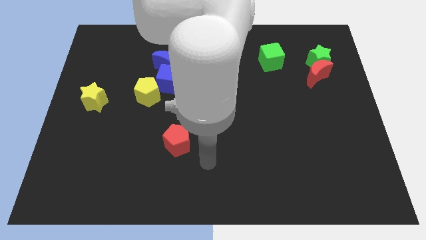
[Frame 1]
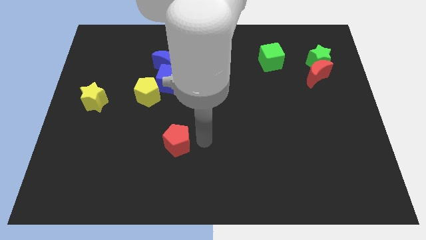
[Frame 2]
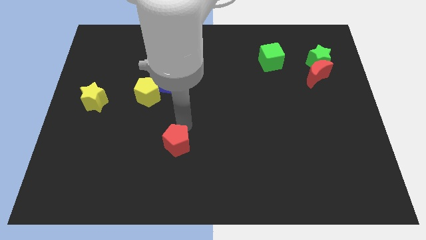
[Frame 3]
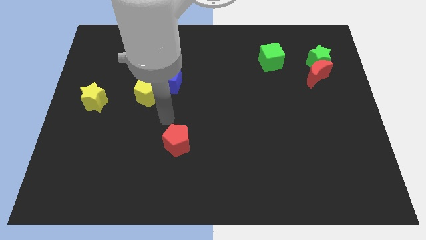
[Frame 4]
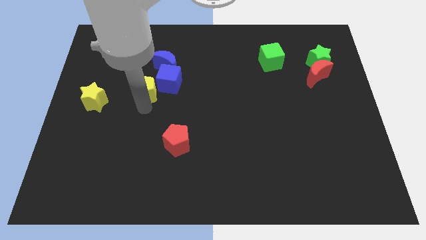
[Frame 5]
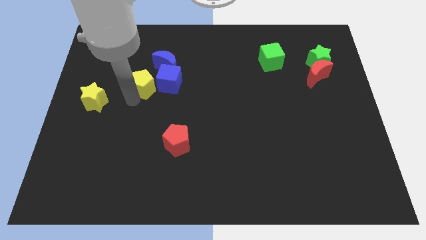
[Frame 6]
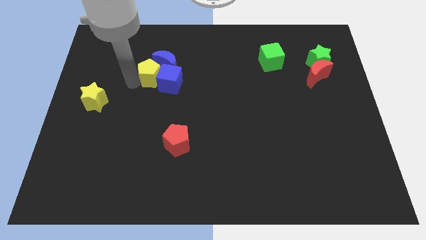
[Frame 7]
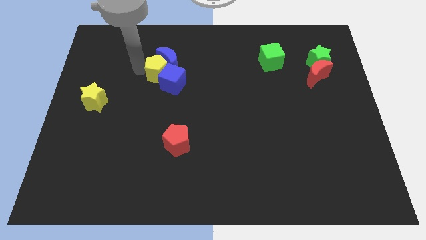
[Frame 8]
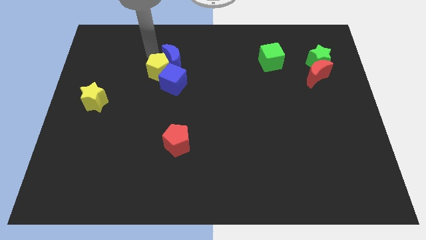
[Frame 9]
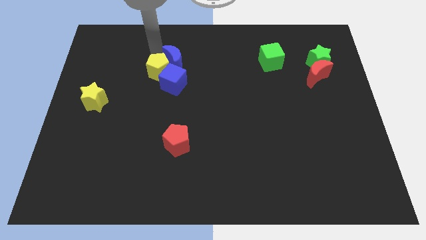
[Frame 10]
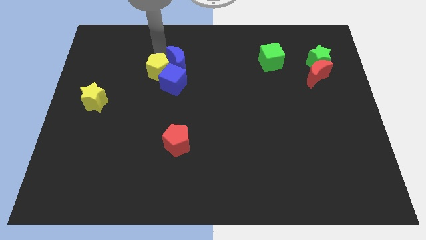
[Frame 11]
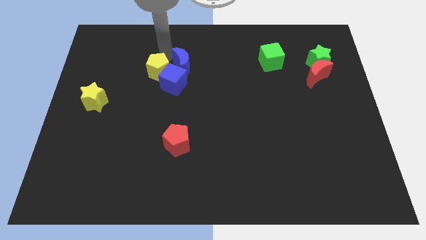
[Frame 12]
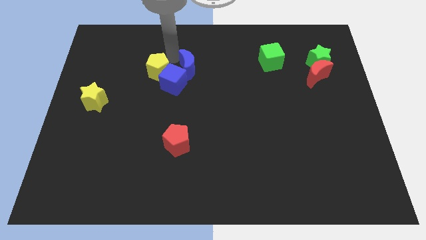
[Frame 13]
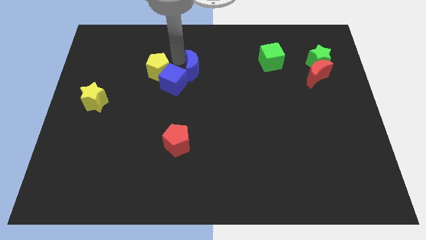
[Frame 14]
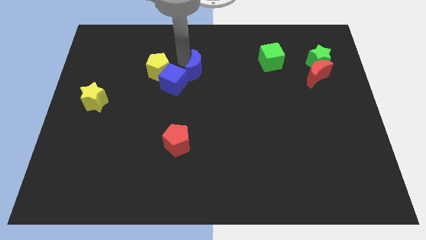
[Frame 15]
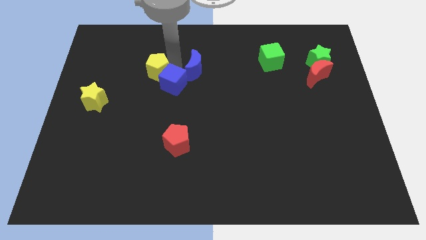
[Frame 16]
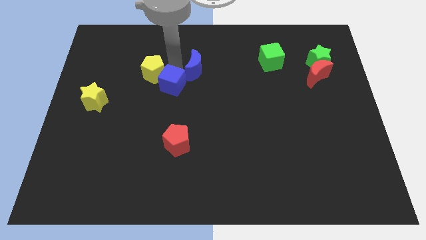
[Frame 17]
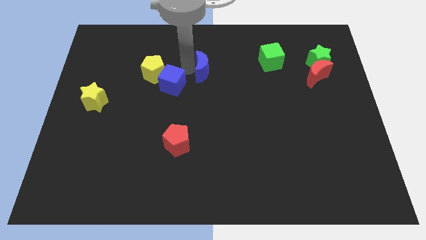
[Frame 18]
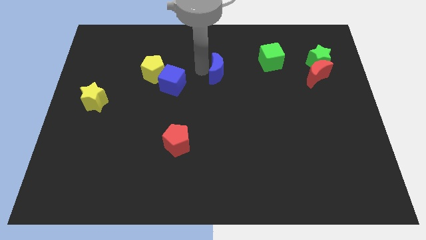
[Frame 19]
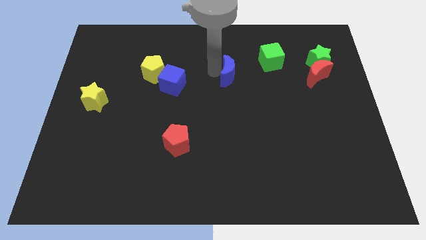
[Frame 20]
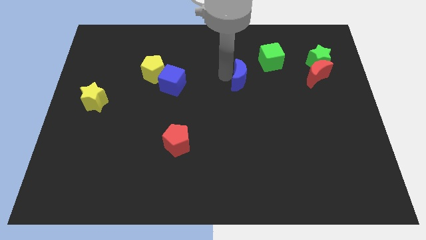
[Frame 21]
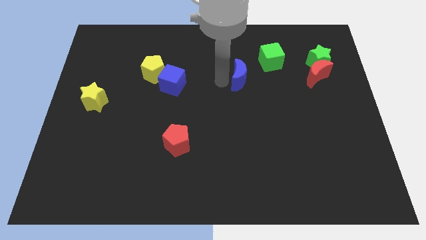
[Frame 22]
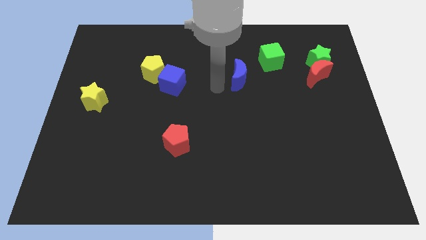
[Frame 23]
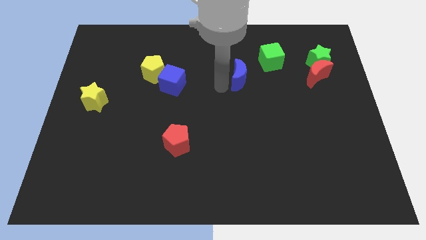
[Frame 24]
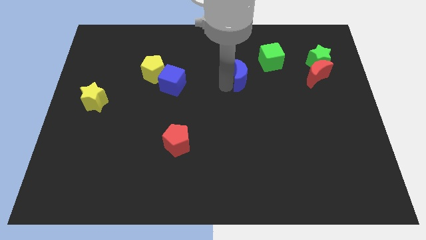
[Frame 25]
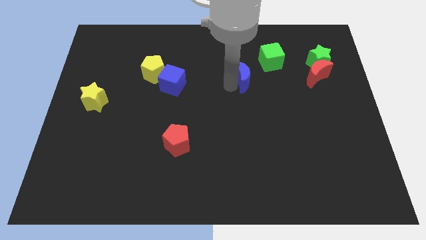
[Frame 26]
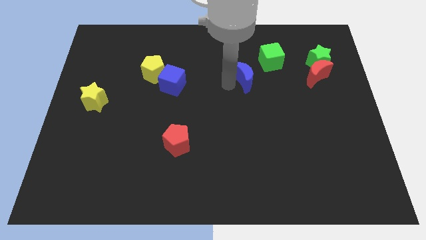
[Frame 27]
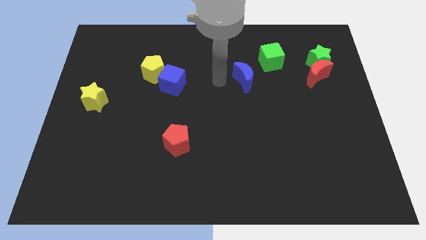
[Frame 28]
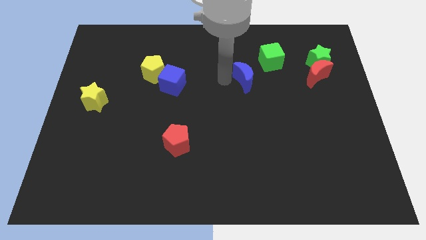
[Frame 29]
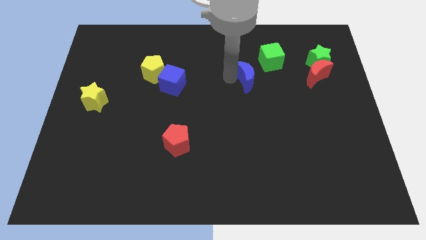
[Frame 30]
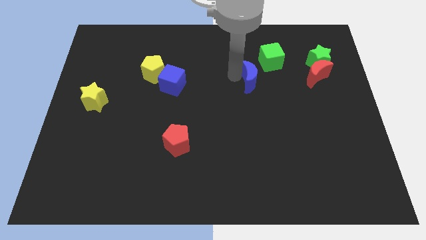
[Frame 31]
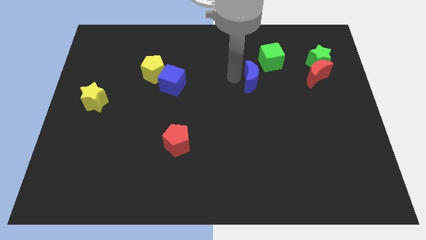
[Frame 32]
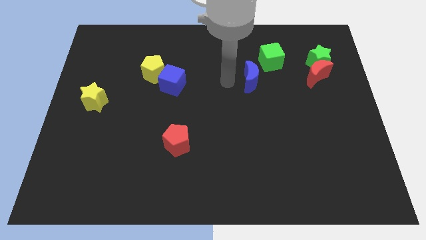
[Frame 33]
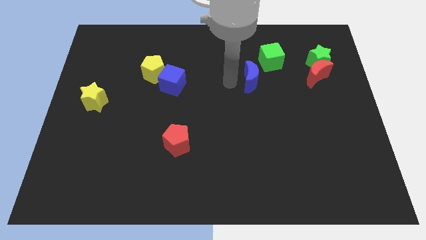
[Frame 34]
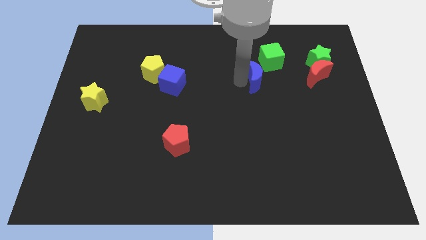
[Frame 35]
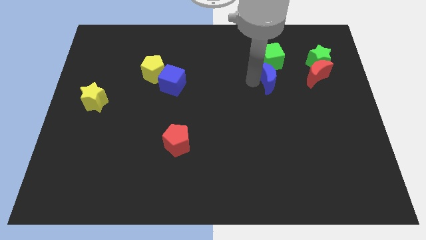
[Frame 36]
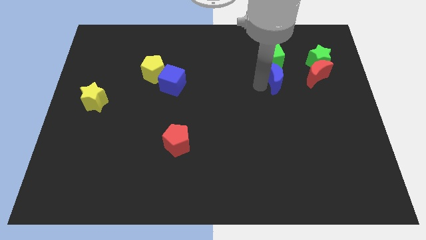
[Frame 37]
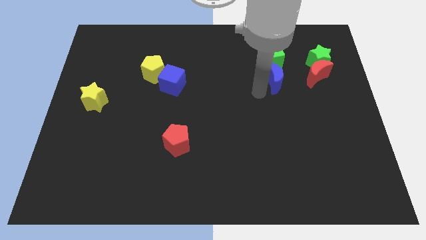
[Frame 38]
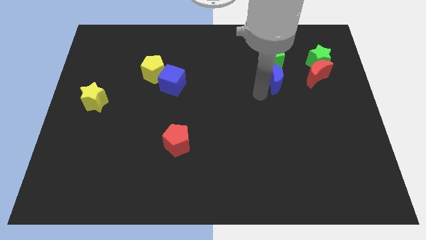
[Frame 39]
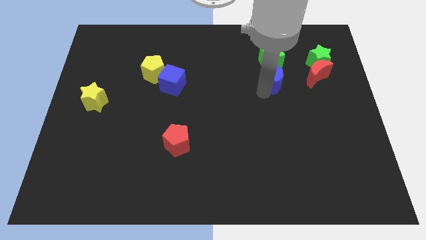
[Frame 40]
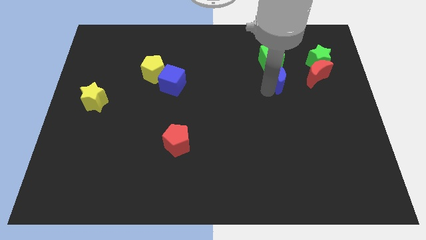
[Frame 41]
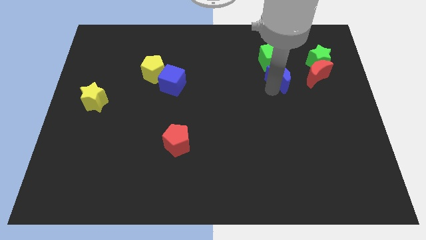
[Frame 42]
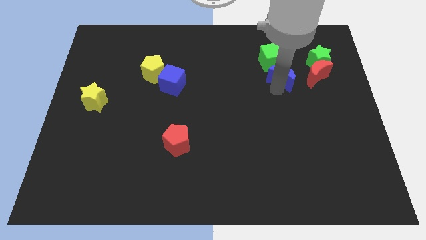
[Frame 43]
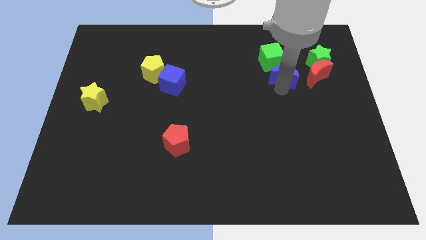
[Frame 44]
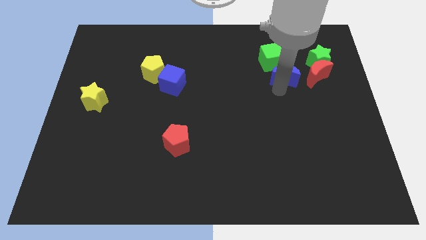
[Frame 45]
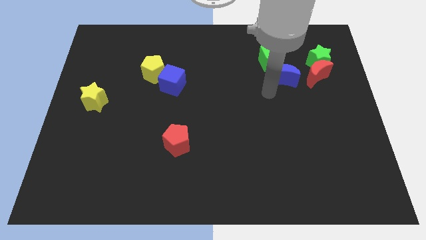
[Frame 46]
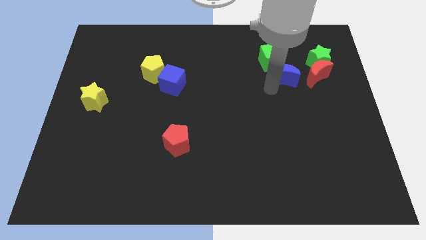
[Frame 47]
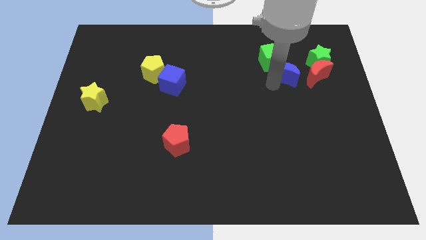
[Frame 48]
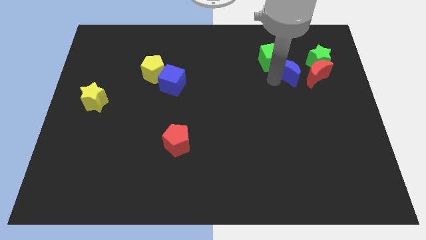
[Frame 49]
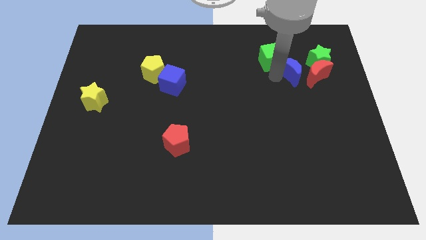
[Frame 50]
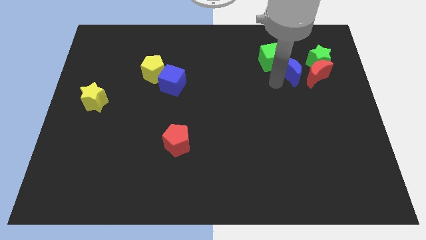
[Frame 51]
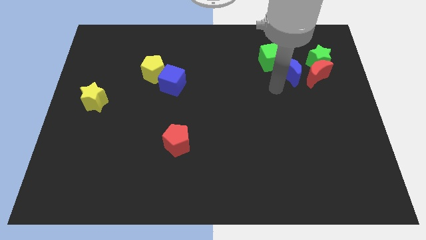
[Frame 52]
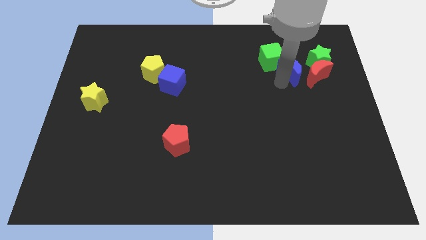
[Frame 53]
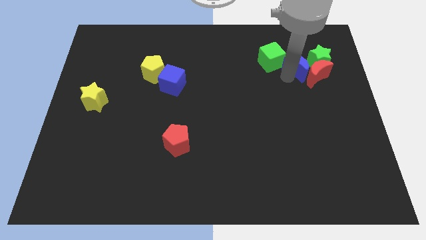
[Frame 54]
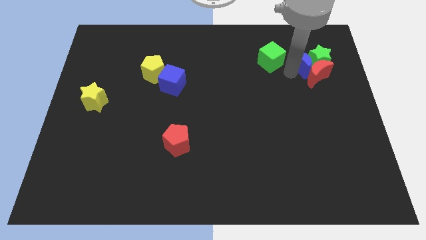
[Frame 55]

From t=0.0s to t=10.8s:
put the blue moon close to the green star

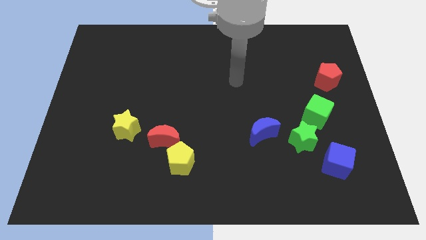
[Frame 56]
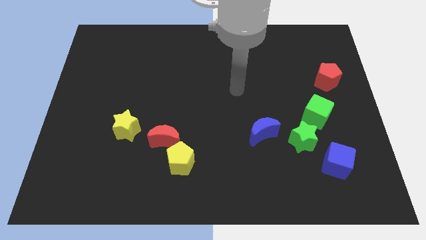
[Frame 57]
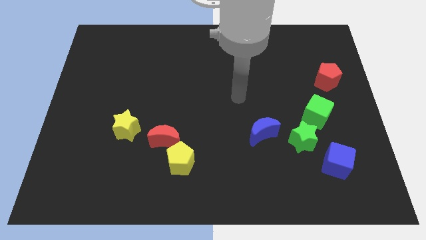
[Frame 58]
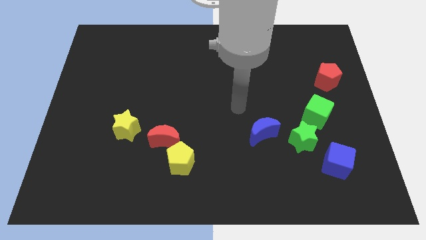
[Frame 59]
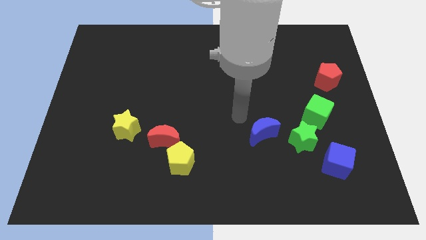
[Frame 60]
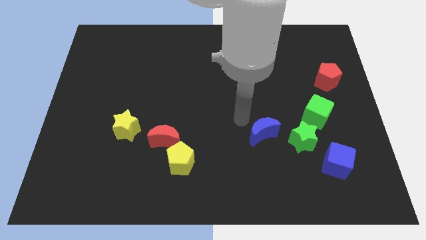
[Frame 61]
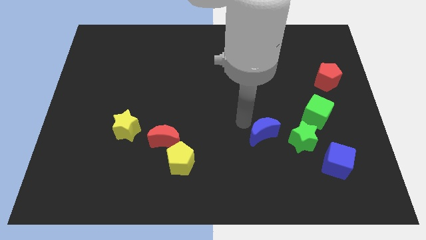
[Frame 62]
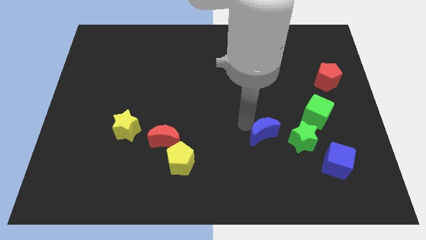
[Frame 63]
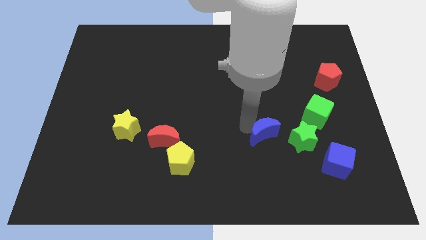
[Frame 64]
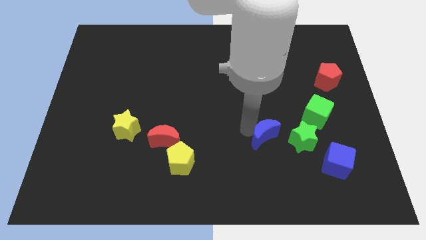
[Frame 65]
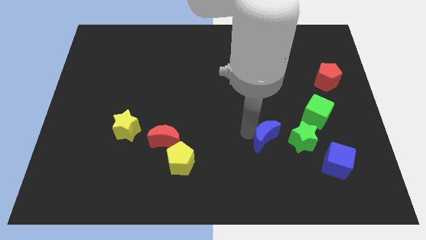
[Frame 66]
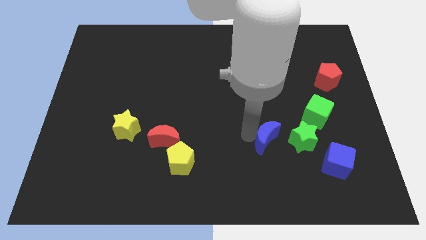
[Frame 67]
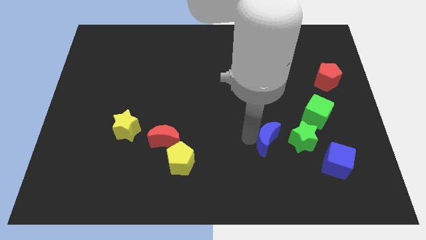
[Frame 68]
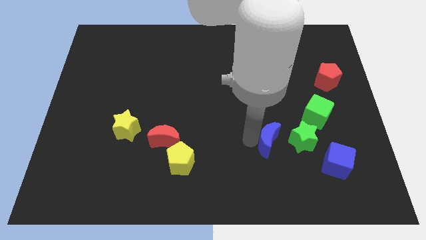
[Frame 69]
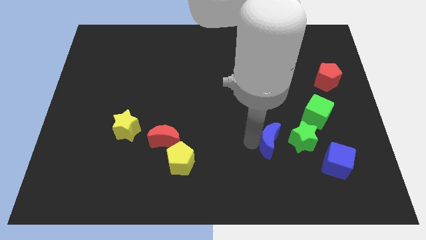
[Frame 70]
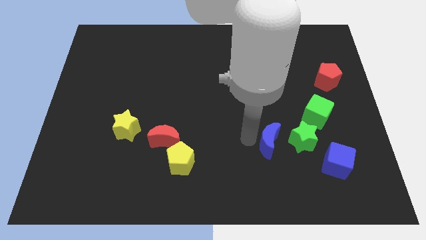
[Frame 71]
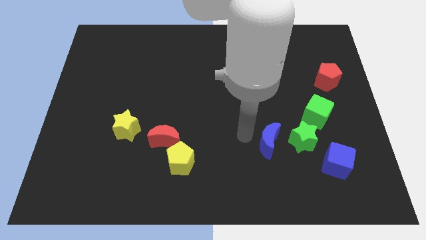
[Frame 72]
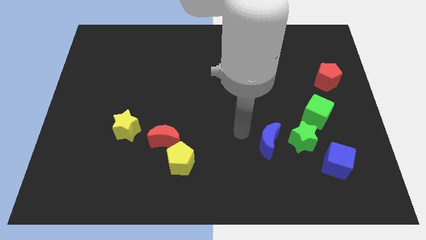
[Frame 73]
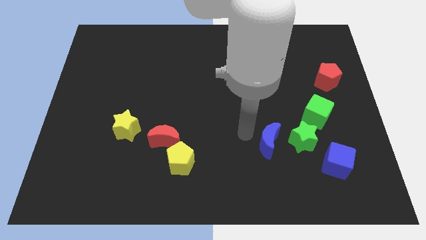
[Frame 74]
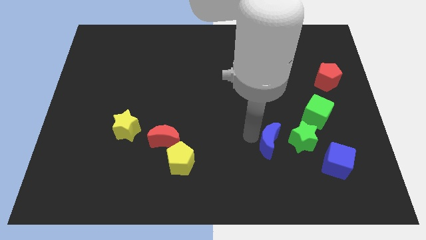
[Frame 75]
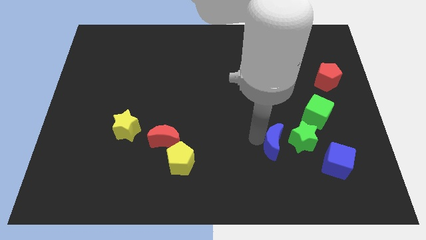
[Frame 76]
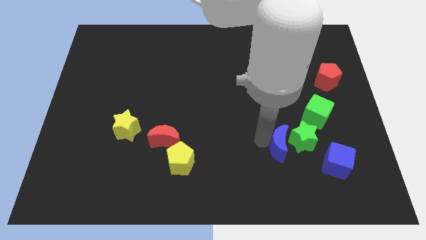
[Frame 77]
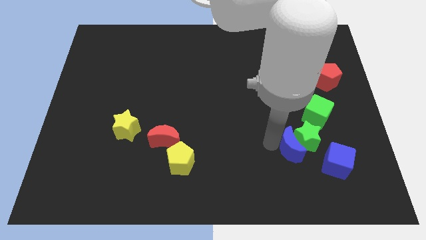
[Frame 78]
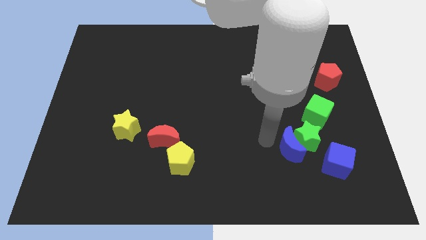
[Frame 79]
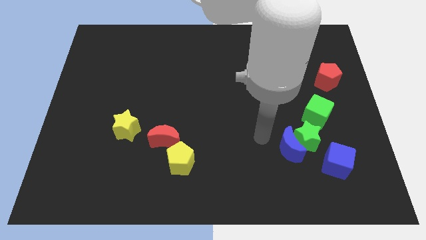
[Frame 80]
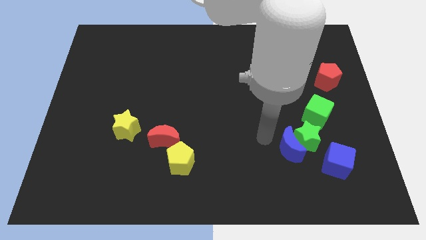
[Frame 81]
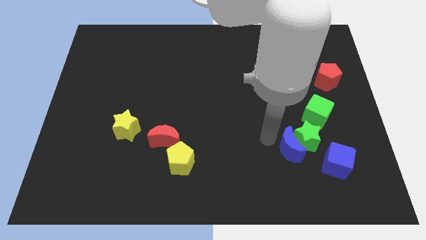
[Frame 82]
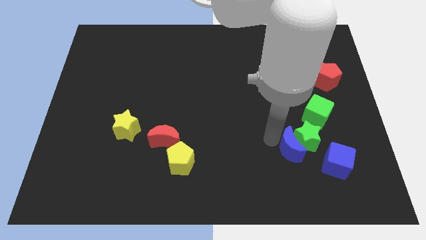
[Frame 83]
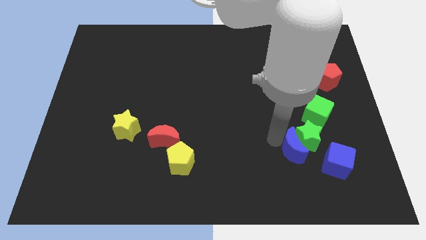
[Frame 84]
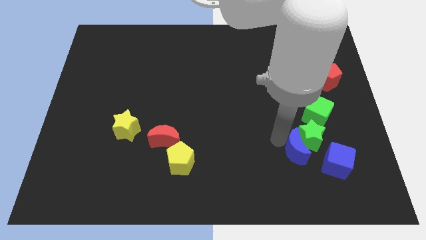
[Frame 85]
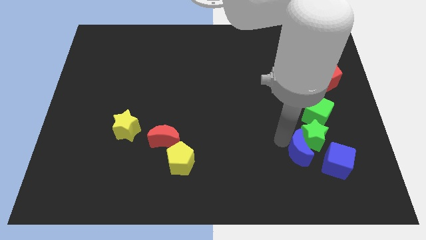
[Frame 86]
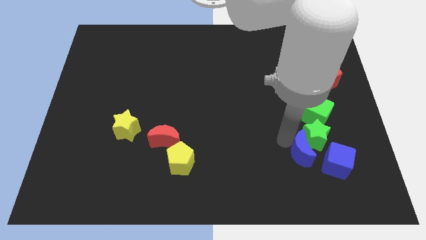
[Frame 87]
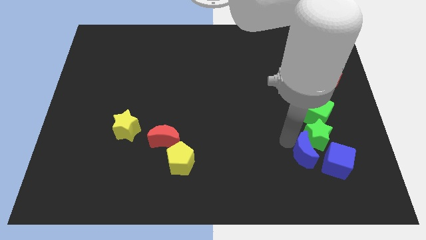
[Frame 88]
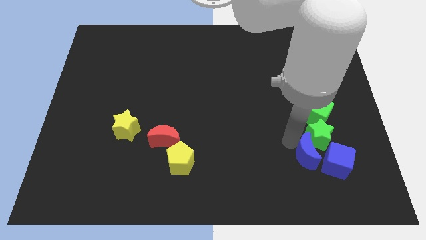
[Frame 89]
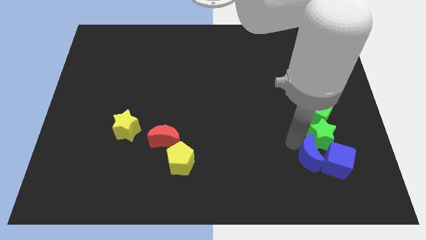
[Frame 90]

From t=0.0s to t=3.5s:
move the blue moon next to the blue cube
